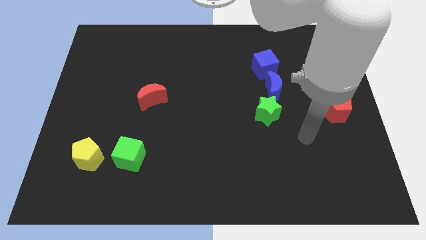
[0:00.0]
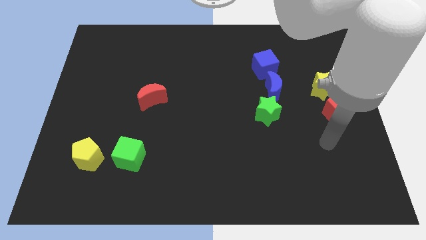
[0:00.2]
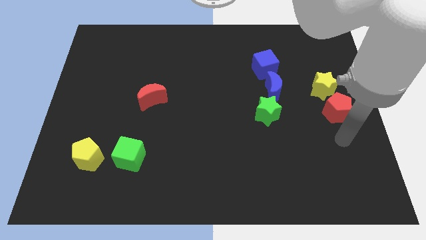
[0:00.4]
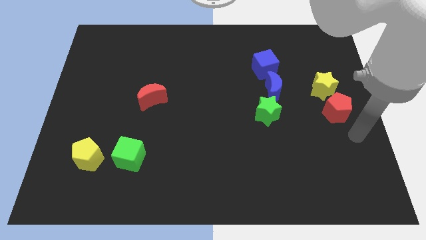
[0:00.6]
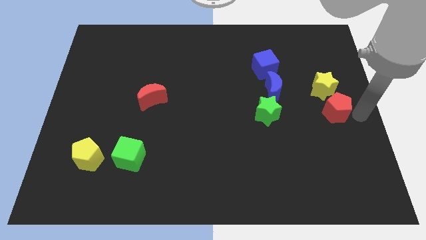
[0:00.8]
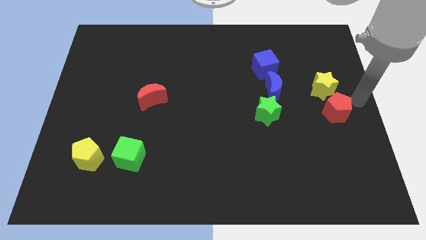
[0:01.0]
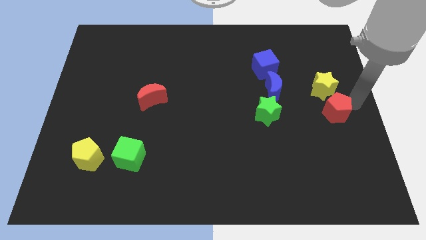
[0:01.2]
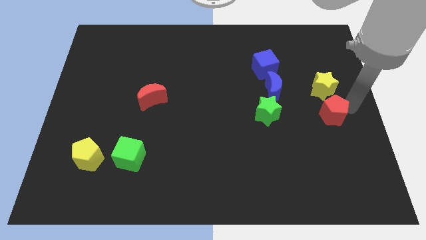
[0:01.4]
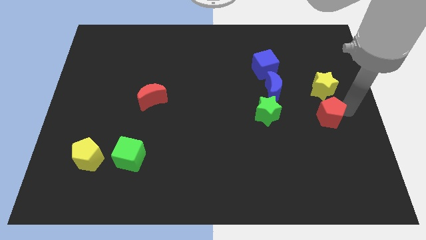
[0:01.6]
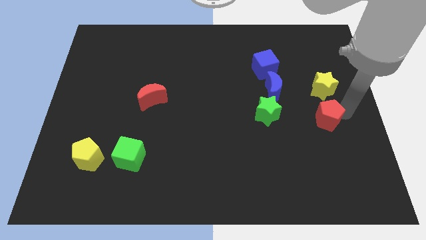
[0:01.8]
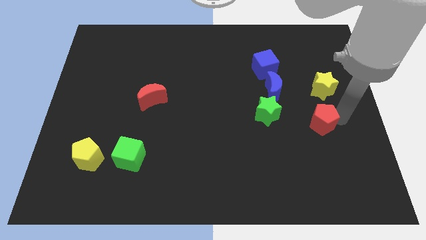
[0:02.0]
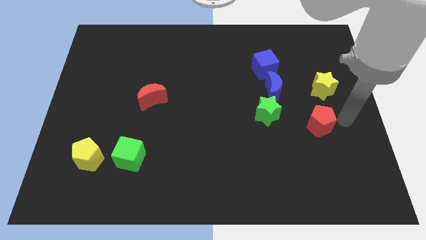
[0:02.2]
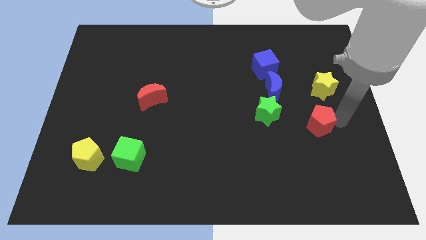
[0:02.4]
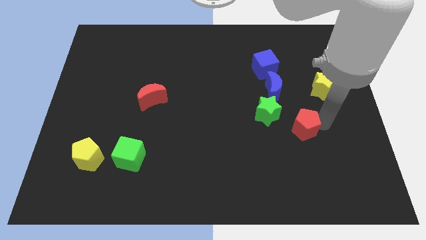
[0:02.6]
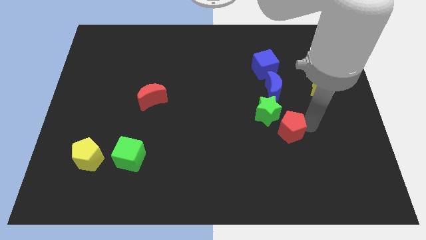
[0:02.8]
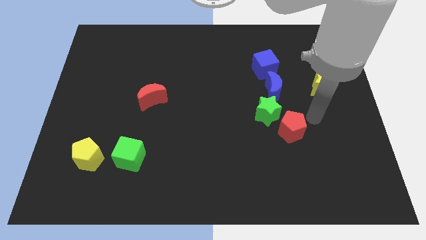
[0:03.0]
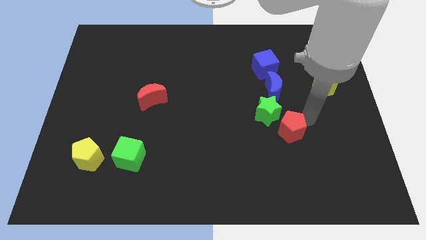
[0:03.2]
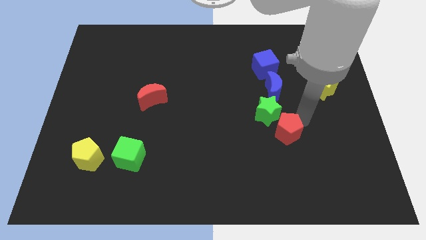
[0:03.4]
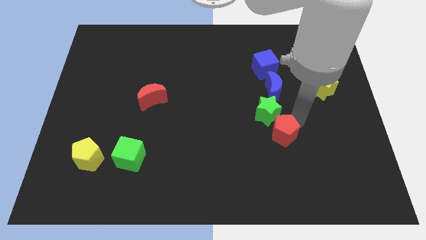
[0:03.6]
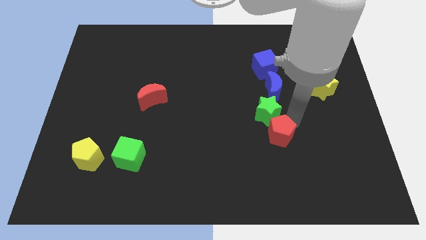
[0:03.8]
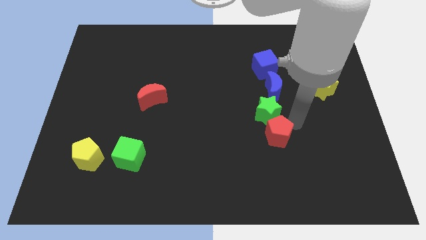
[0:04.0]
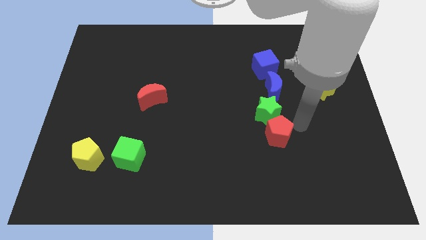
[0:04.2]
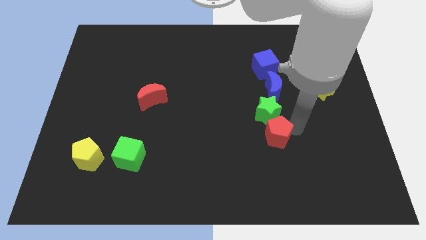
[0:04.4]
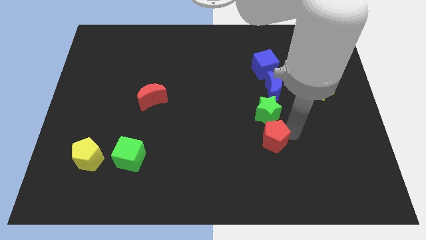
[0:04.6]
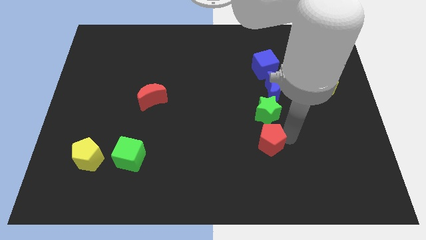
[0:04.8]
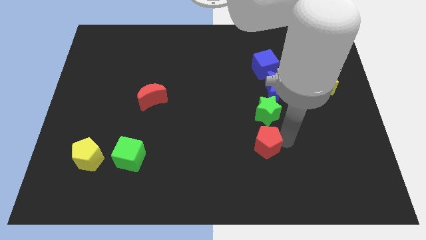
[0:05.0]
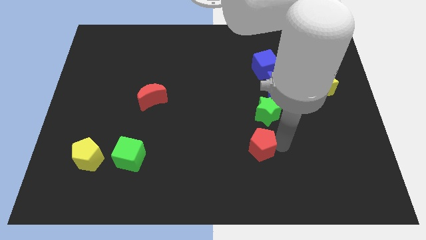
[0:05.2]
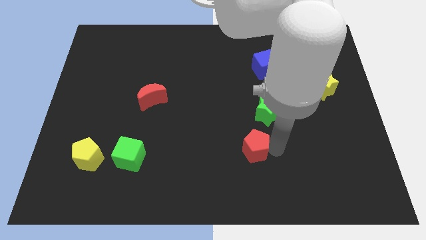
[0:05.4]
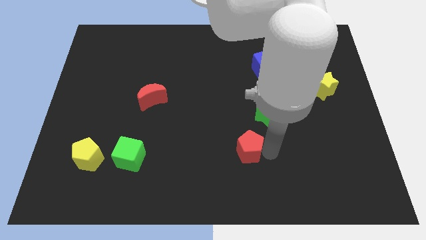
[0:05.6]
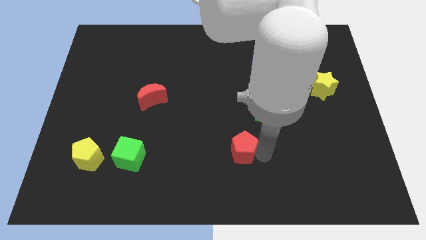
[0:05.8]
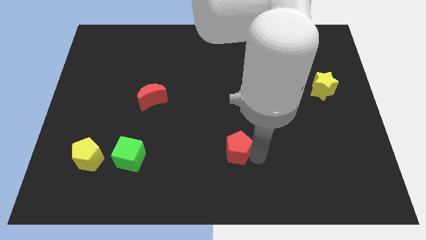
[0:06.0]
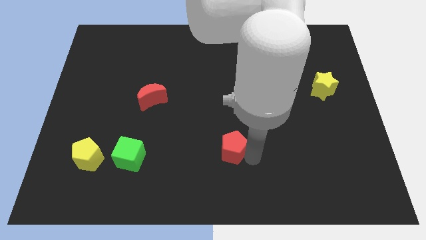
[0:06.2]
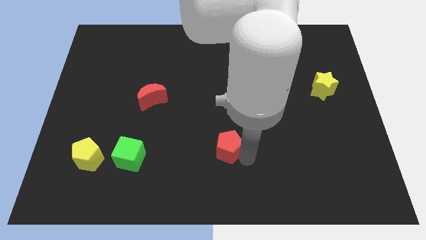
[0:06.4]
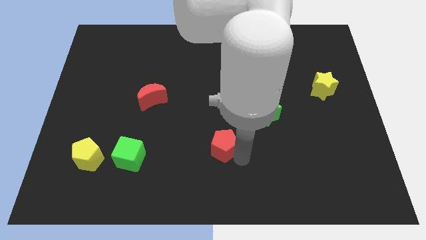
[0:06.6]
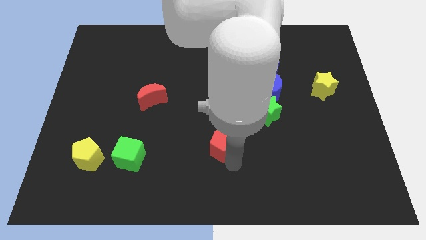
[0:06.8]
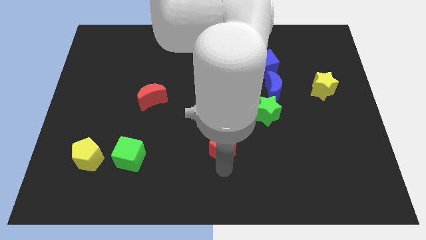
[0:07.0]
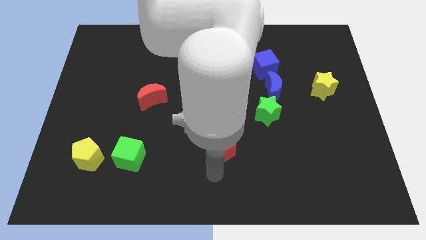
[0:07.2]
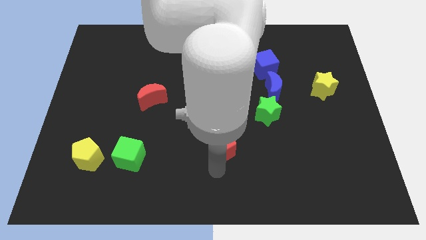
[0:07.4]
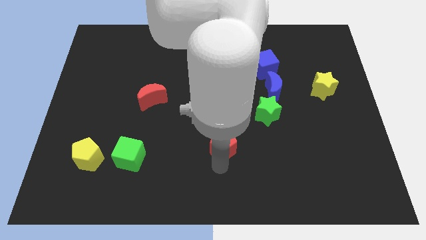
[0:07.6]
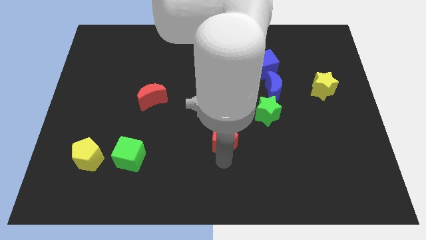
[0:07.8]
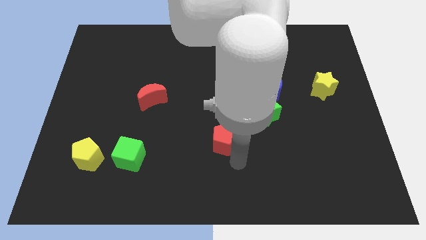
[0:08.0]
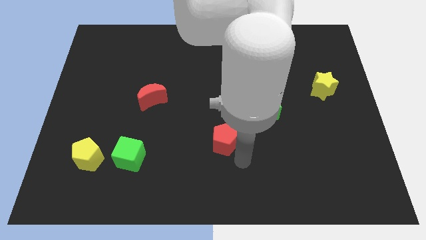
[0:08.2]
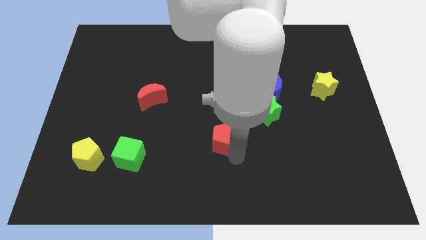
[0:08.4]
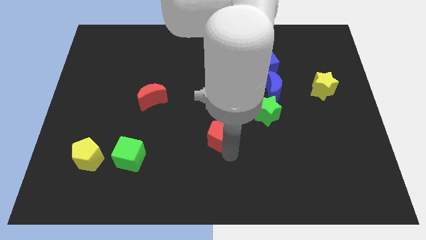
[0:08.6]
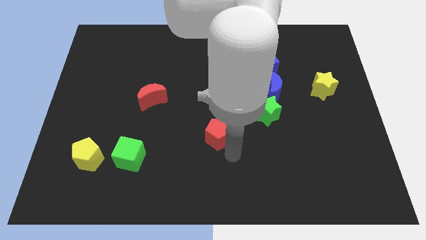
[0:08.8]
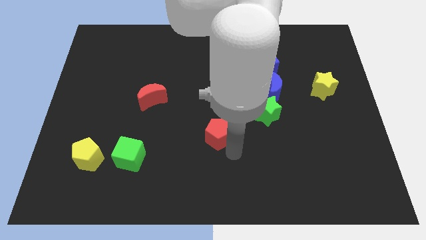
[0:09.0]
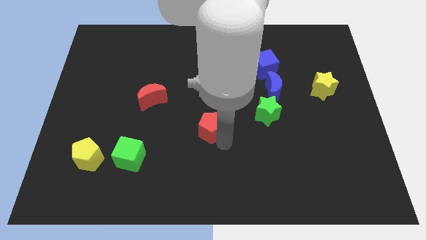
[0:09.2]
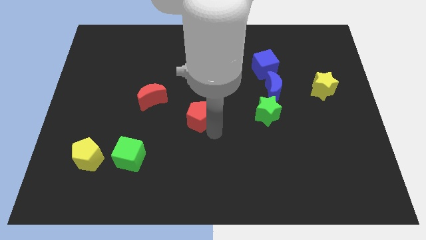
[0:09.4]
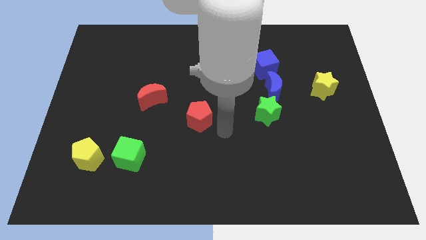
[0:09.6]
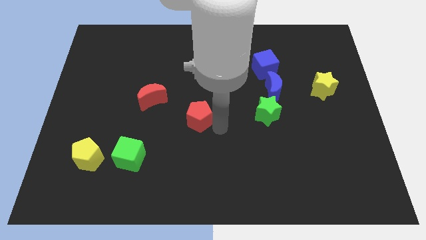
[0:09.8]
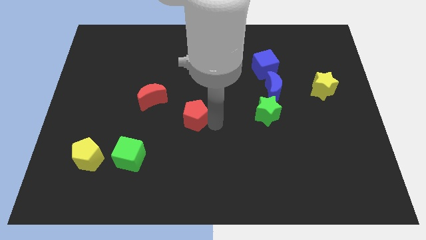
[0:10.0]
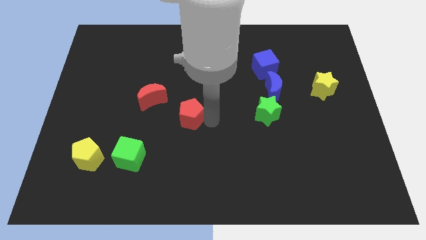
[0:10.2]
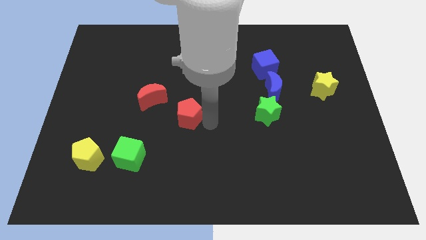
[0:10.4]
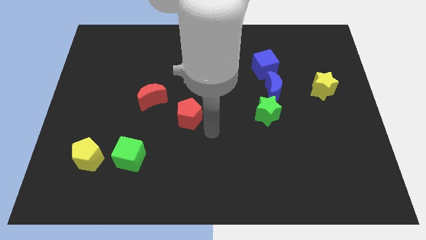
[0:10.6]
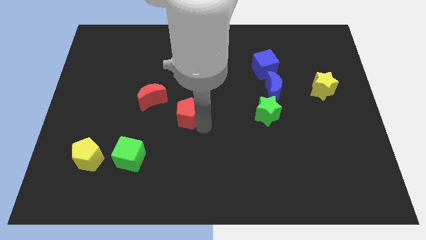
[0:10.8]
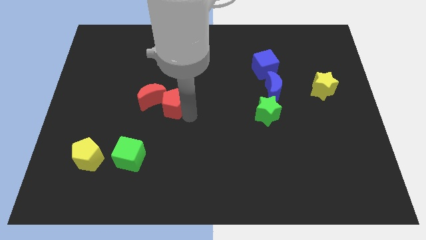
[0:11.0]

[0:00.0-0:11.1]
move the red pentagon close to the red moon

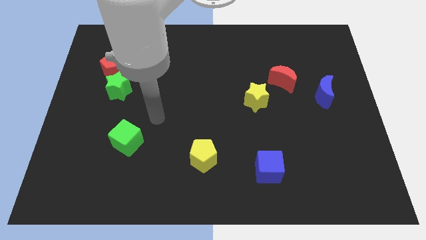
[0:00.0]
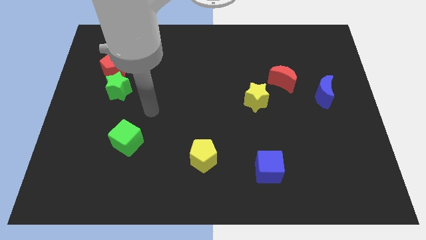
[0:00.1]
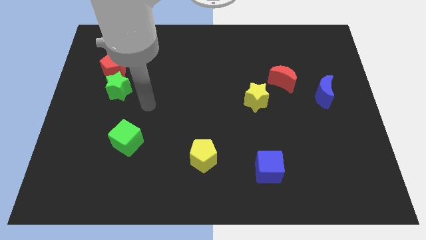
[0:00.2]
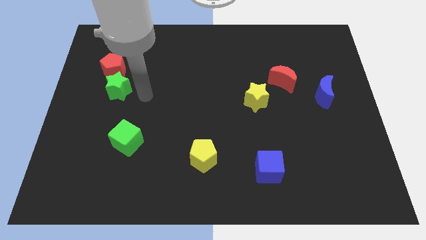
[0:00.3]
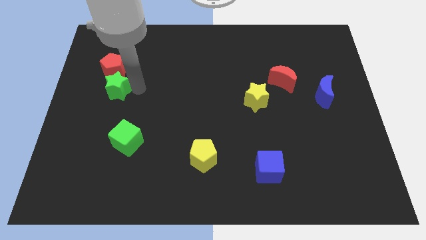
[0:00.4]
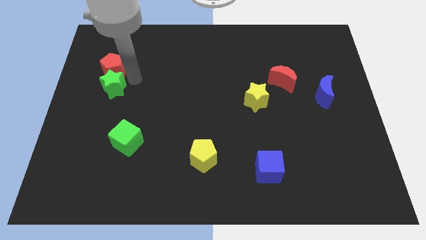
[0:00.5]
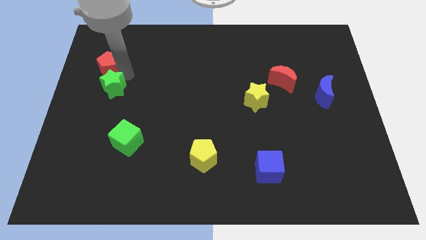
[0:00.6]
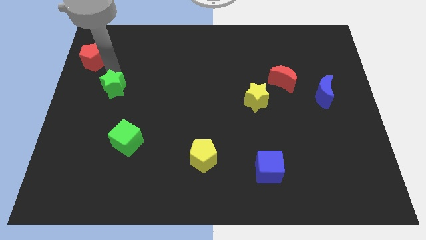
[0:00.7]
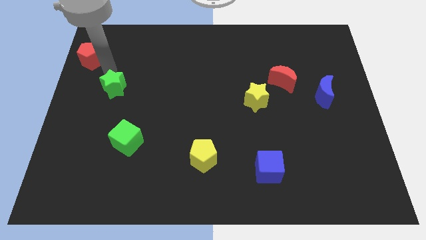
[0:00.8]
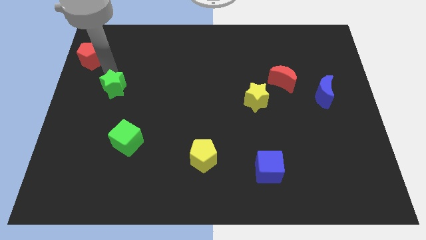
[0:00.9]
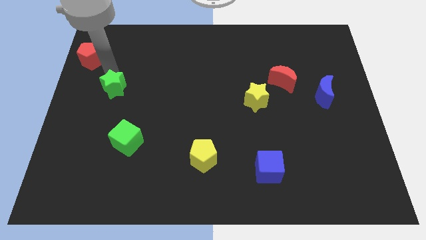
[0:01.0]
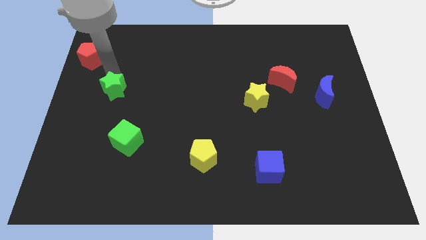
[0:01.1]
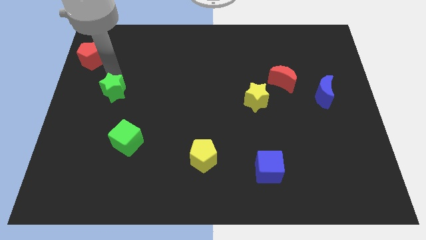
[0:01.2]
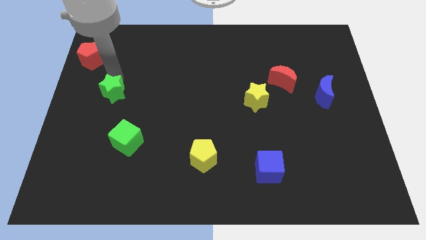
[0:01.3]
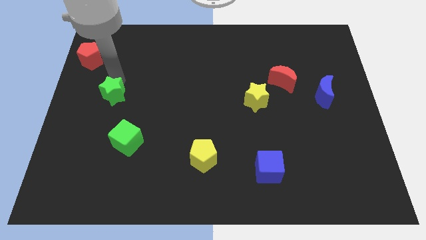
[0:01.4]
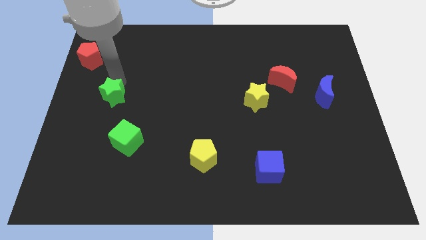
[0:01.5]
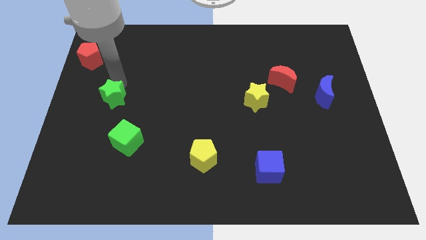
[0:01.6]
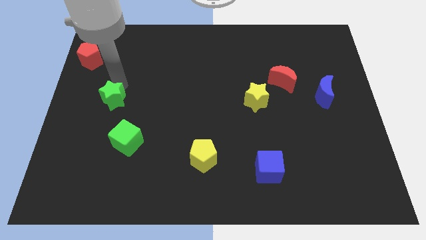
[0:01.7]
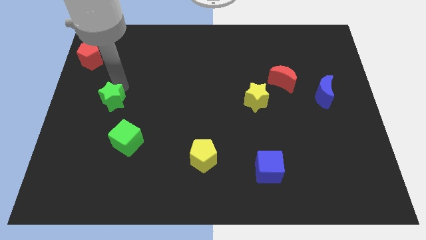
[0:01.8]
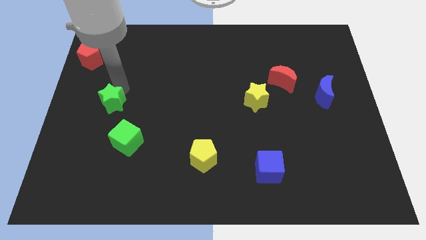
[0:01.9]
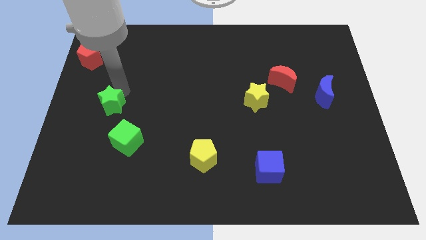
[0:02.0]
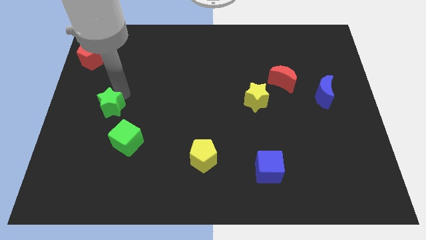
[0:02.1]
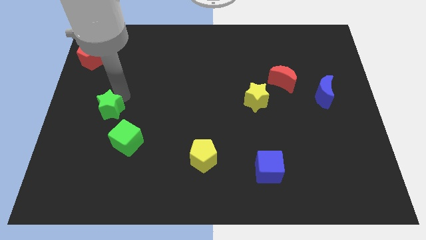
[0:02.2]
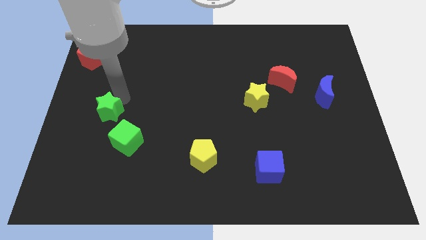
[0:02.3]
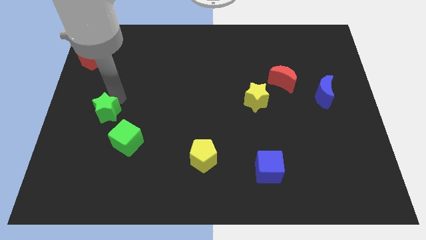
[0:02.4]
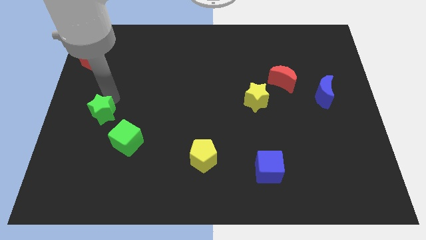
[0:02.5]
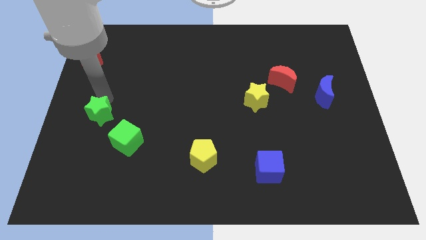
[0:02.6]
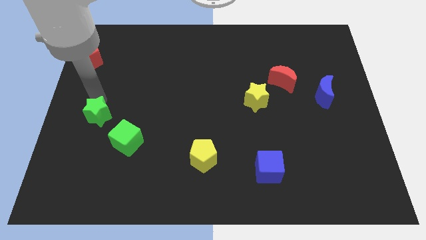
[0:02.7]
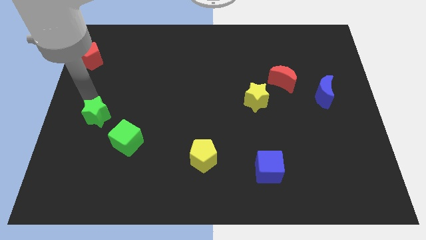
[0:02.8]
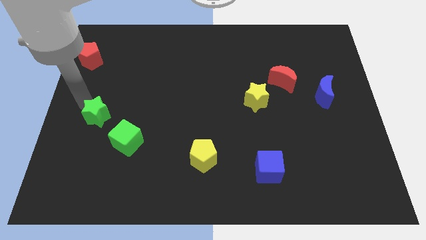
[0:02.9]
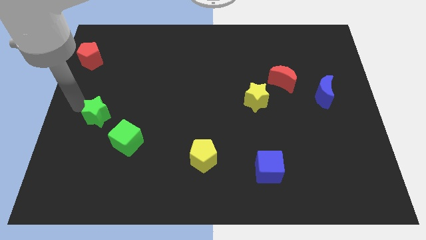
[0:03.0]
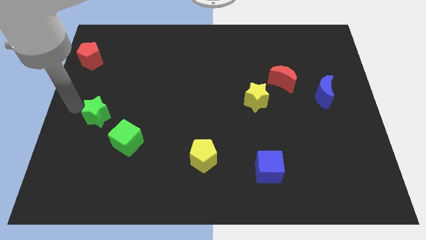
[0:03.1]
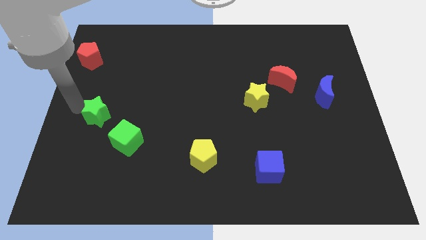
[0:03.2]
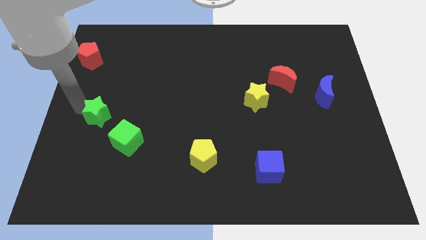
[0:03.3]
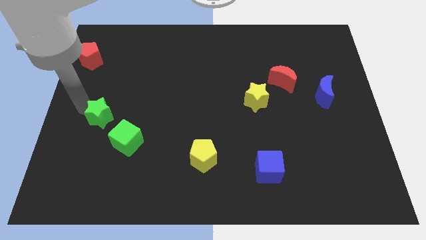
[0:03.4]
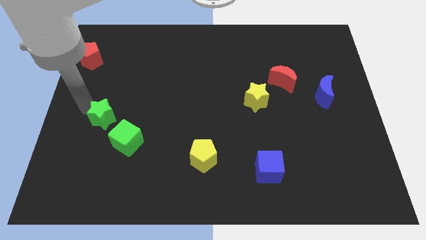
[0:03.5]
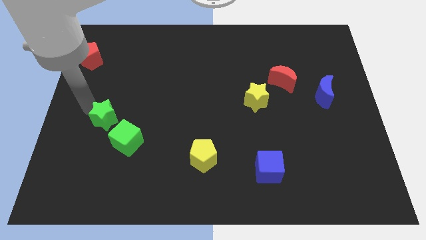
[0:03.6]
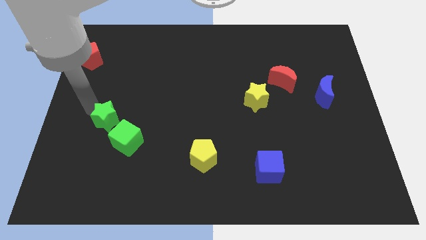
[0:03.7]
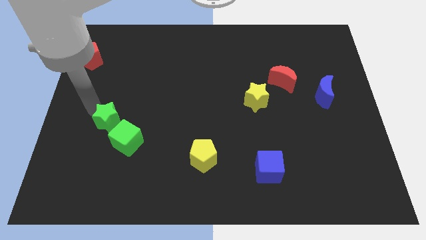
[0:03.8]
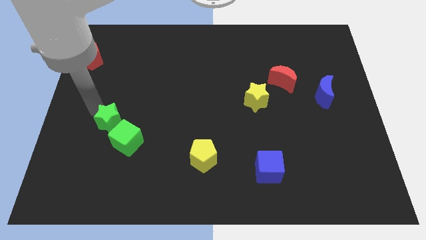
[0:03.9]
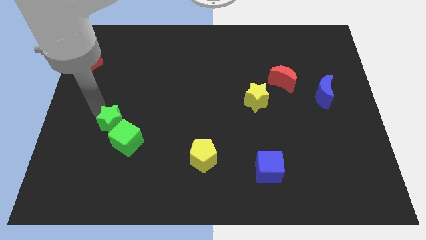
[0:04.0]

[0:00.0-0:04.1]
put the green star towards the green cube
